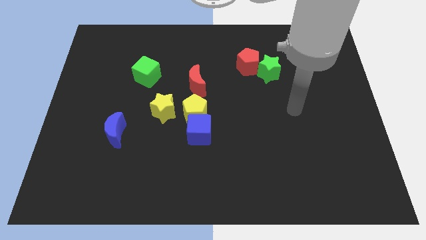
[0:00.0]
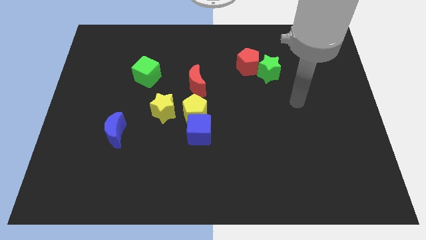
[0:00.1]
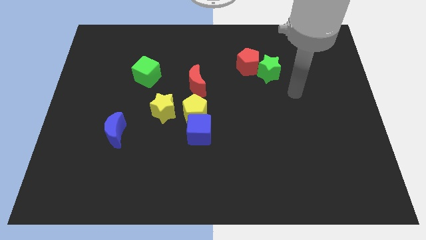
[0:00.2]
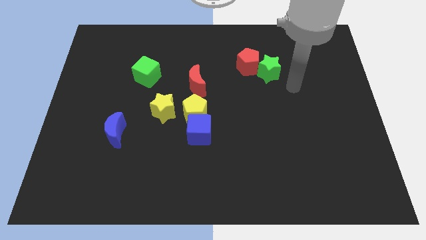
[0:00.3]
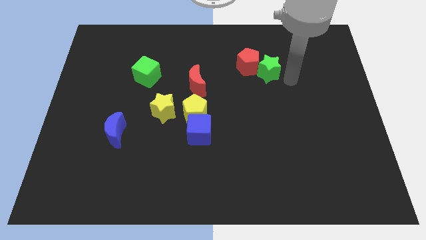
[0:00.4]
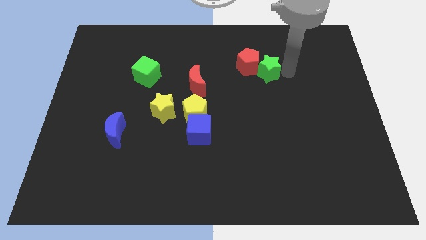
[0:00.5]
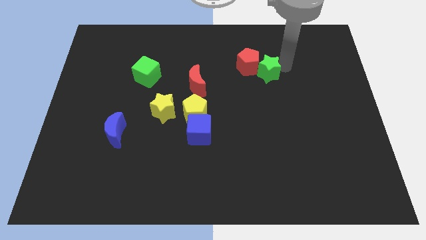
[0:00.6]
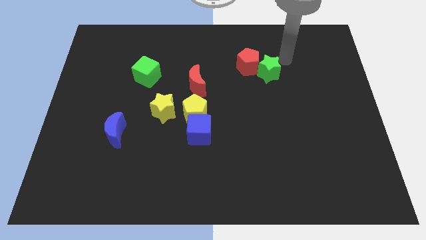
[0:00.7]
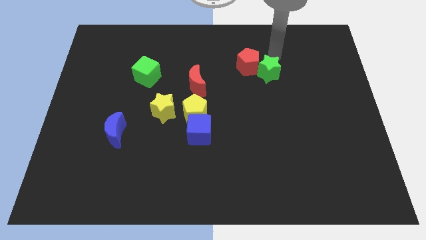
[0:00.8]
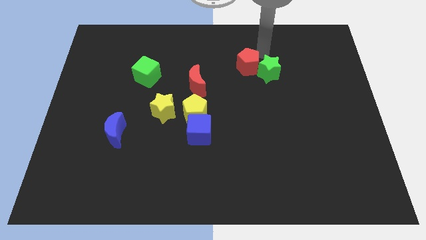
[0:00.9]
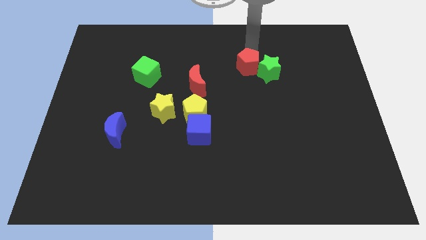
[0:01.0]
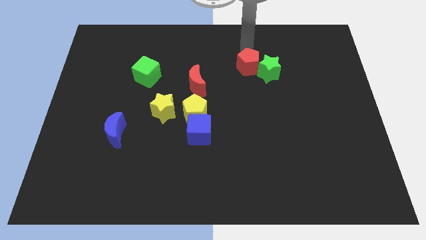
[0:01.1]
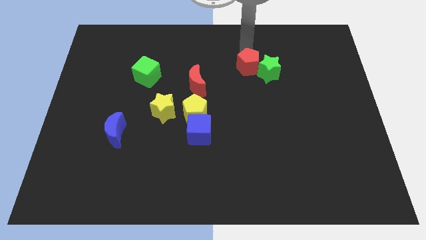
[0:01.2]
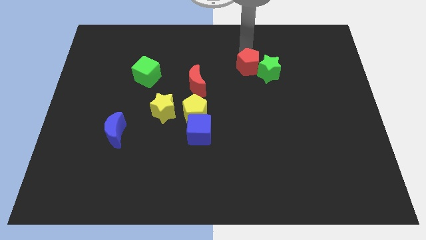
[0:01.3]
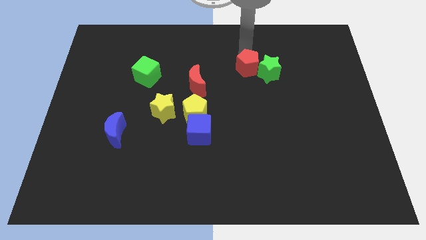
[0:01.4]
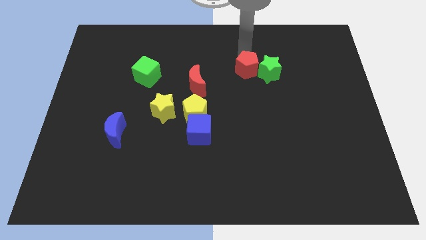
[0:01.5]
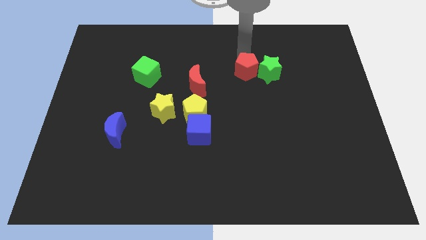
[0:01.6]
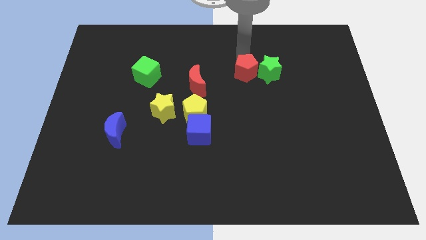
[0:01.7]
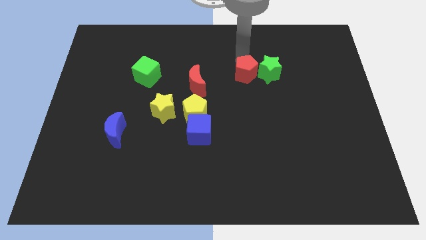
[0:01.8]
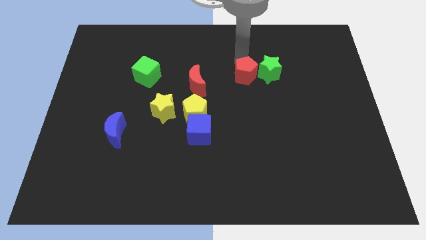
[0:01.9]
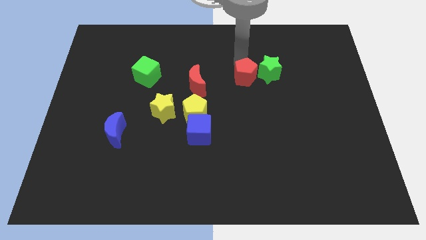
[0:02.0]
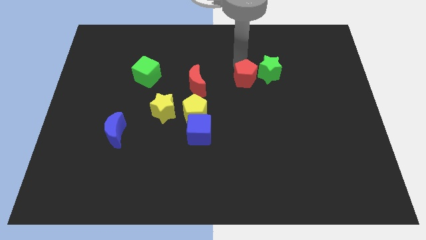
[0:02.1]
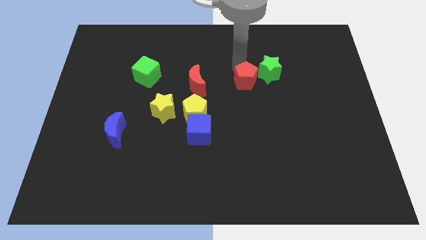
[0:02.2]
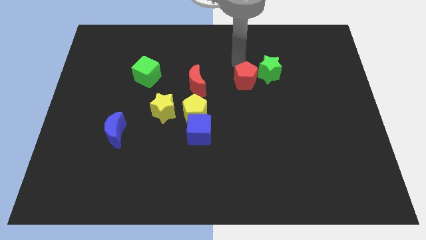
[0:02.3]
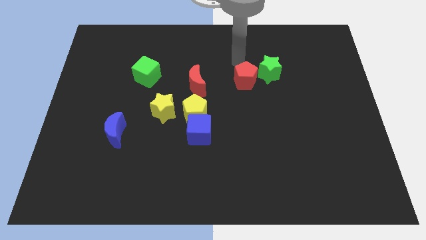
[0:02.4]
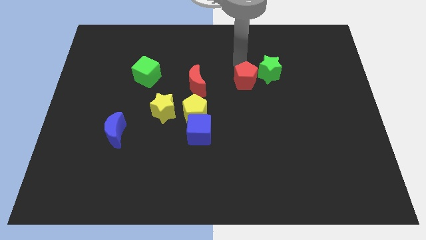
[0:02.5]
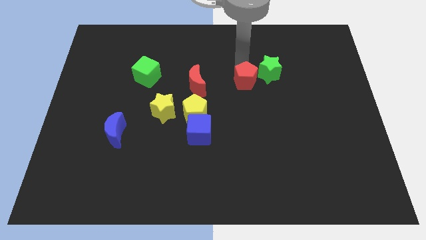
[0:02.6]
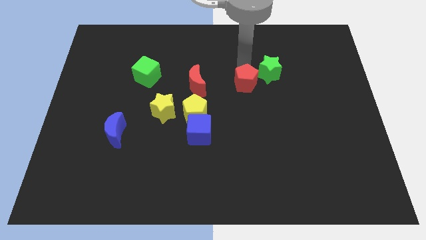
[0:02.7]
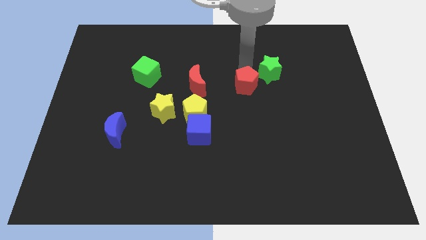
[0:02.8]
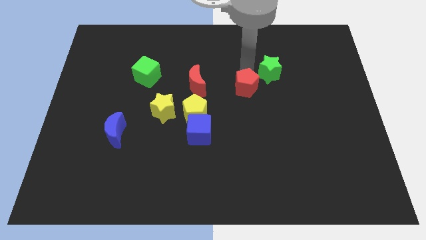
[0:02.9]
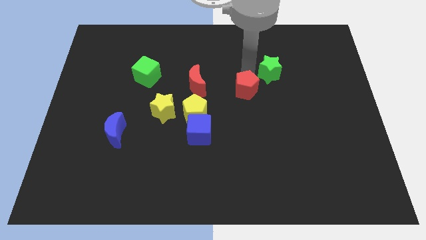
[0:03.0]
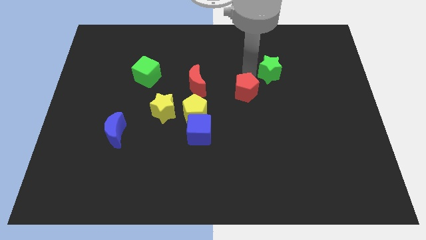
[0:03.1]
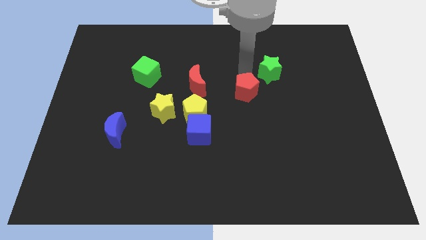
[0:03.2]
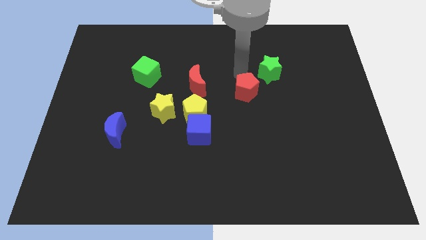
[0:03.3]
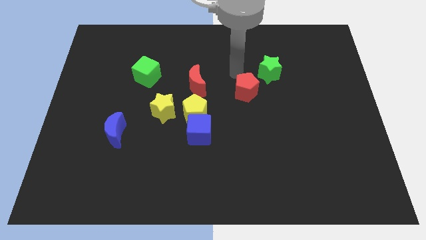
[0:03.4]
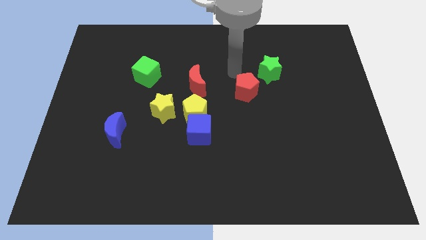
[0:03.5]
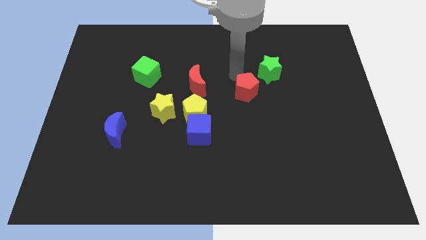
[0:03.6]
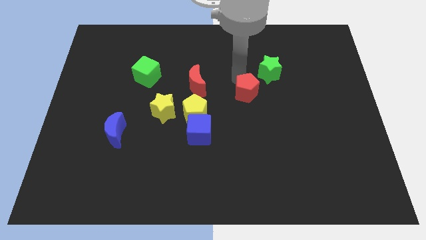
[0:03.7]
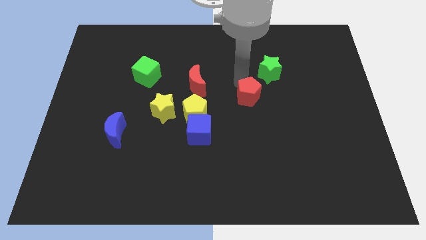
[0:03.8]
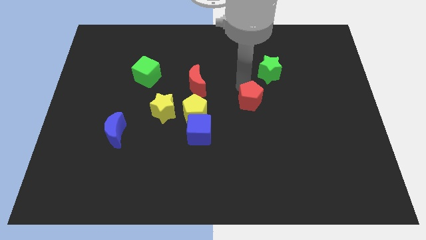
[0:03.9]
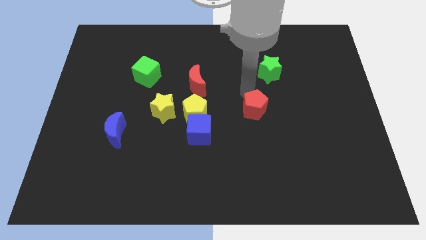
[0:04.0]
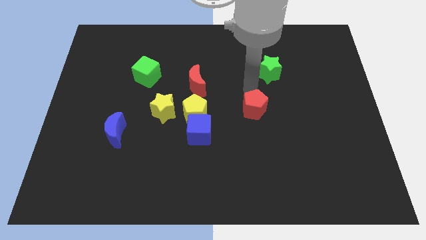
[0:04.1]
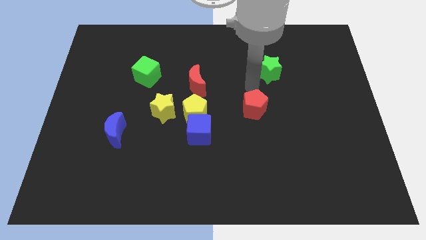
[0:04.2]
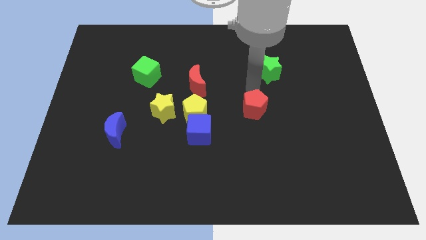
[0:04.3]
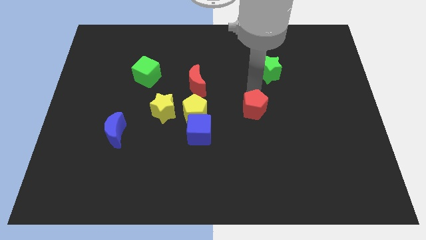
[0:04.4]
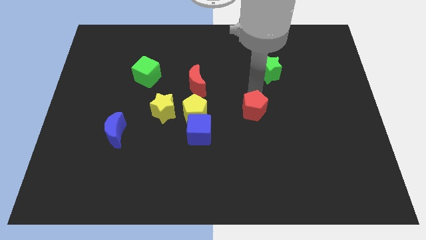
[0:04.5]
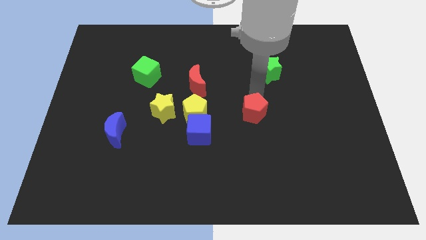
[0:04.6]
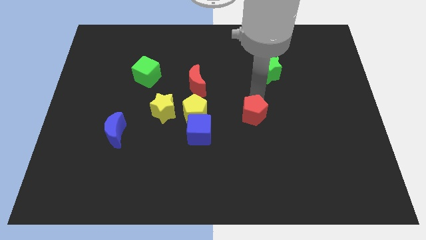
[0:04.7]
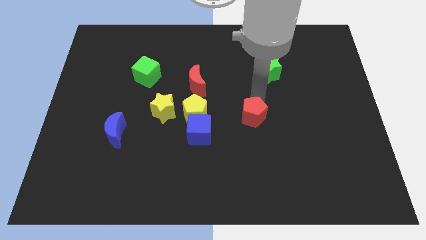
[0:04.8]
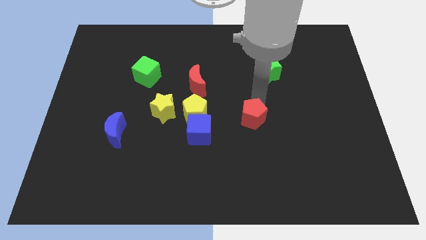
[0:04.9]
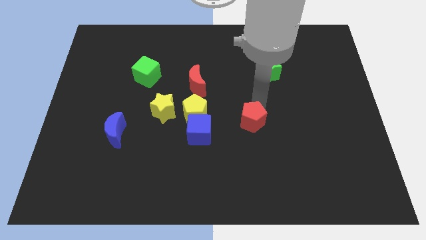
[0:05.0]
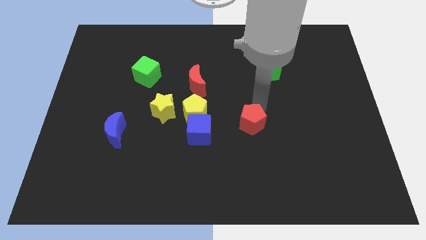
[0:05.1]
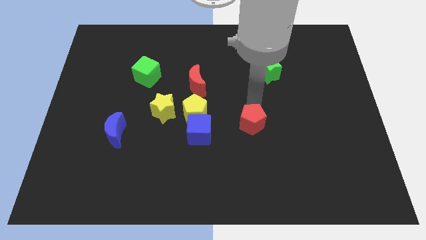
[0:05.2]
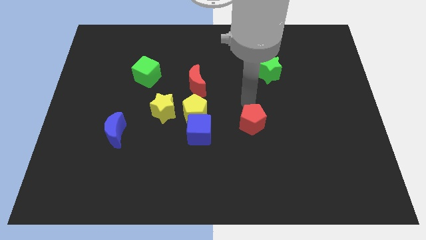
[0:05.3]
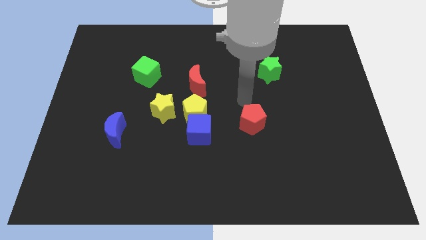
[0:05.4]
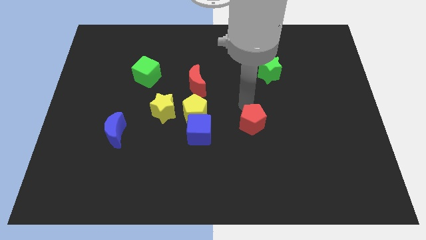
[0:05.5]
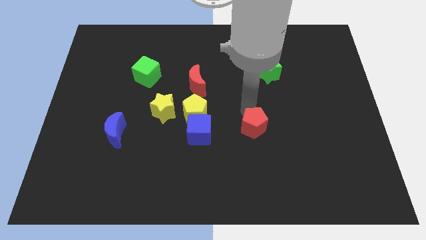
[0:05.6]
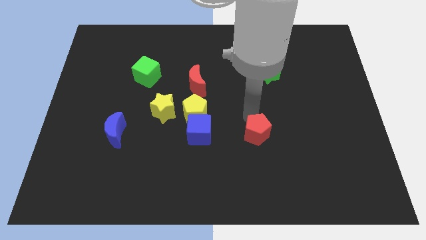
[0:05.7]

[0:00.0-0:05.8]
push the red pentagon down

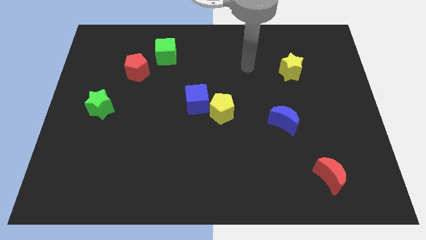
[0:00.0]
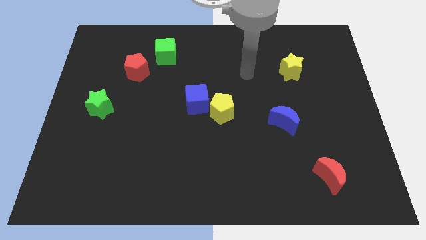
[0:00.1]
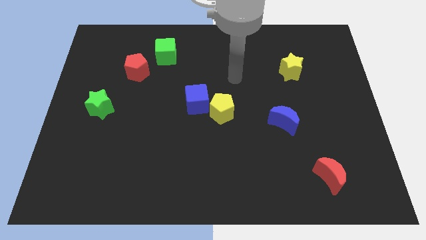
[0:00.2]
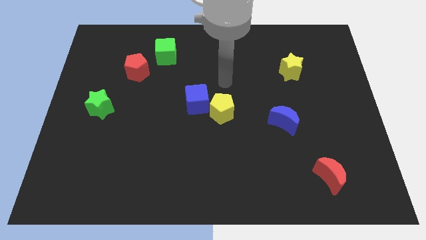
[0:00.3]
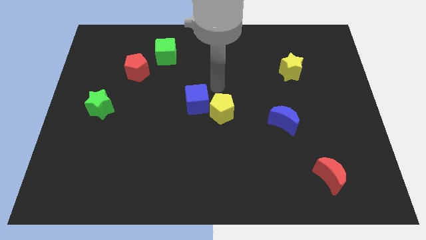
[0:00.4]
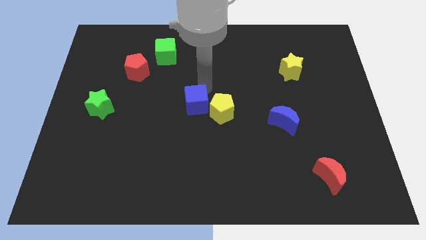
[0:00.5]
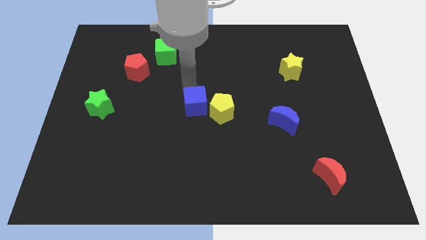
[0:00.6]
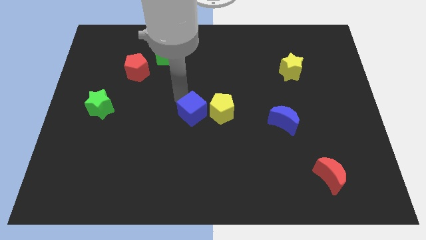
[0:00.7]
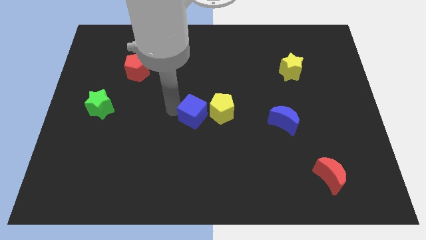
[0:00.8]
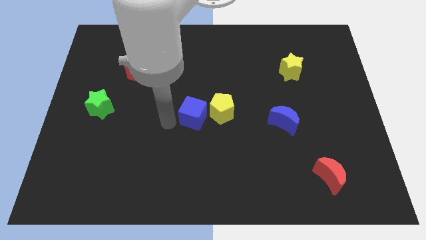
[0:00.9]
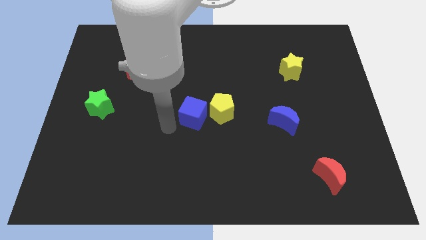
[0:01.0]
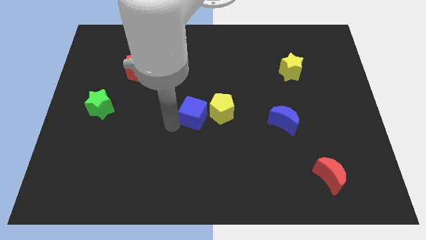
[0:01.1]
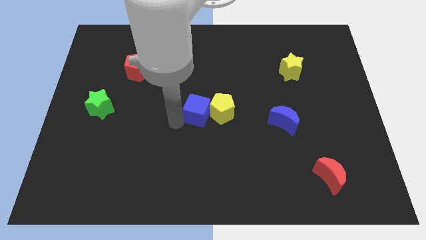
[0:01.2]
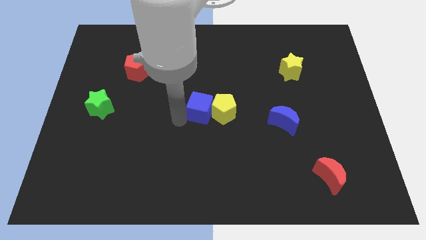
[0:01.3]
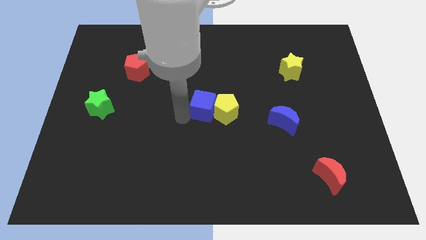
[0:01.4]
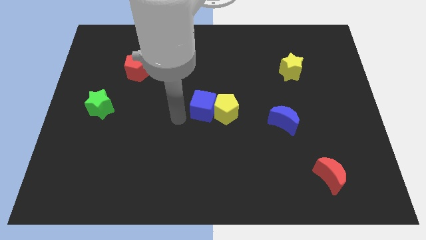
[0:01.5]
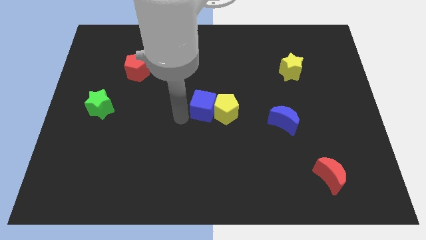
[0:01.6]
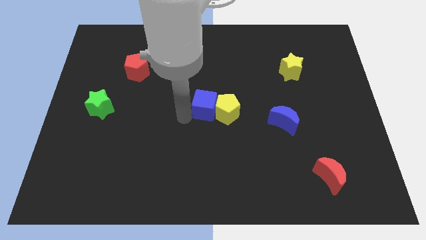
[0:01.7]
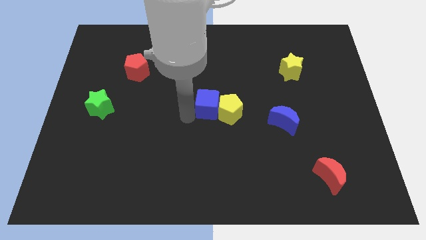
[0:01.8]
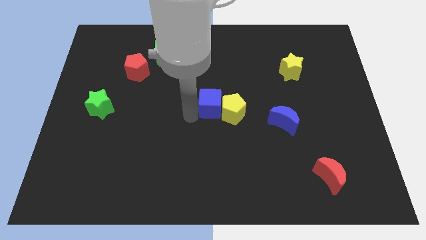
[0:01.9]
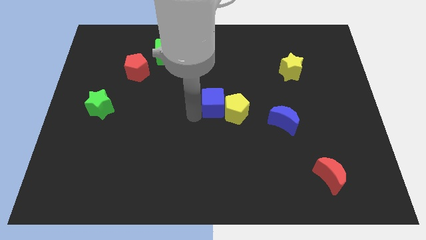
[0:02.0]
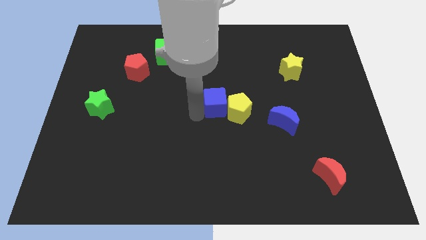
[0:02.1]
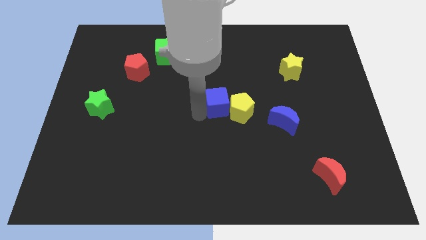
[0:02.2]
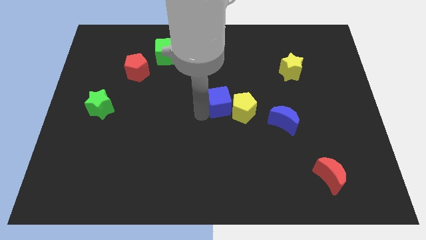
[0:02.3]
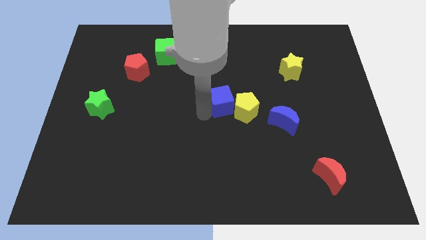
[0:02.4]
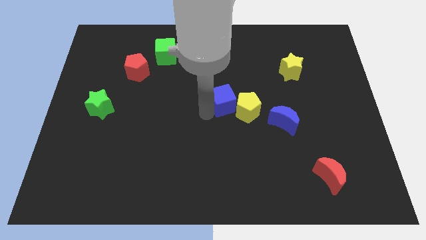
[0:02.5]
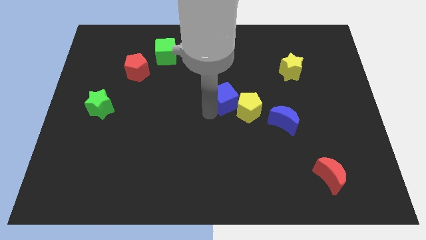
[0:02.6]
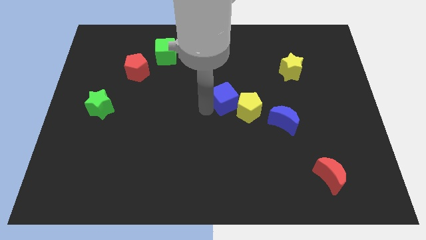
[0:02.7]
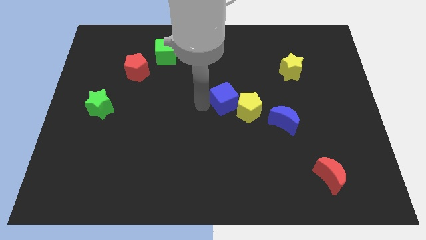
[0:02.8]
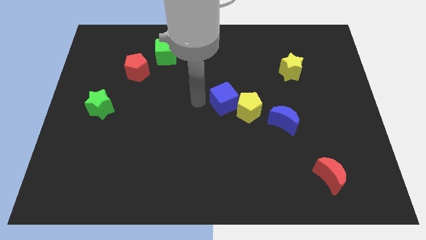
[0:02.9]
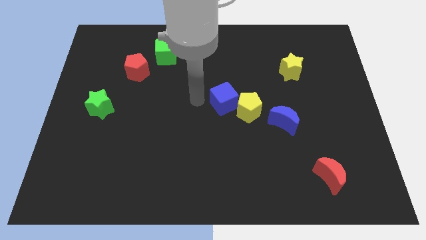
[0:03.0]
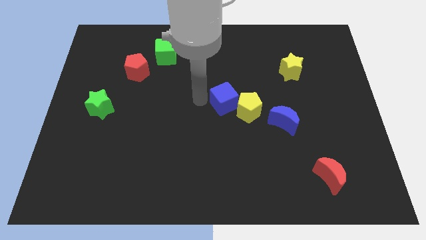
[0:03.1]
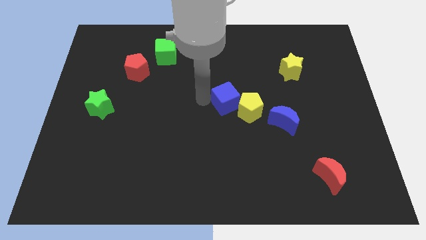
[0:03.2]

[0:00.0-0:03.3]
move the blue cube to the right a little
